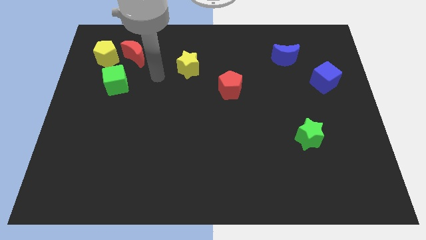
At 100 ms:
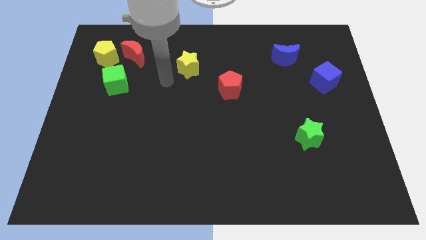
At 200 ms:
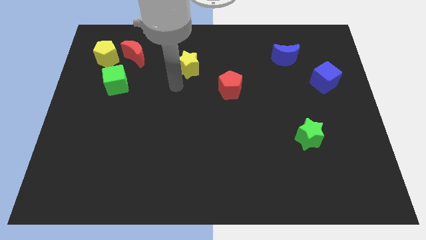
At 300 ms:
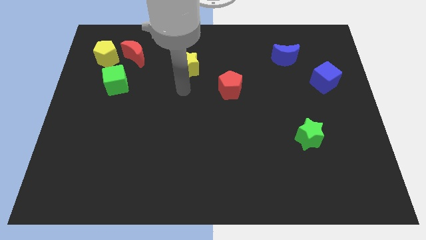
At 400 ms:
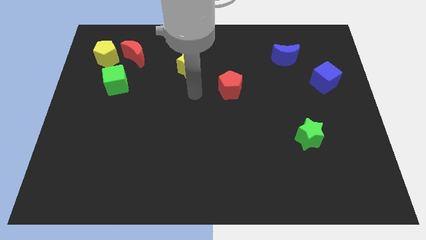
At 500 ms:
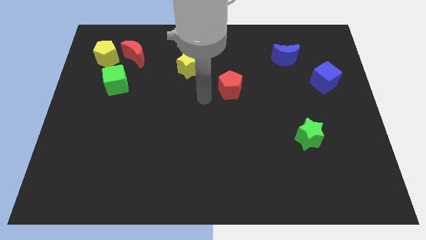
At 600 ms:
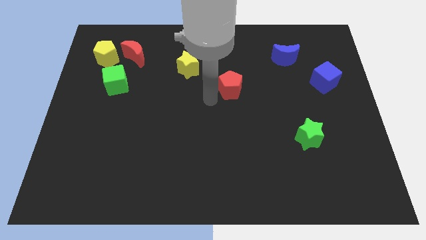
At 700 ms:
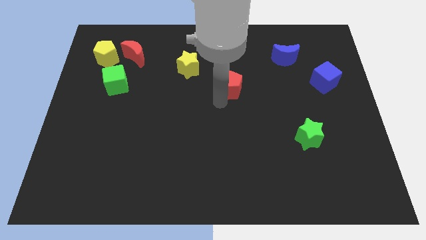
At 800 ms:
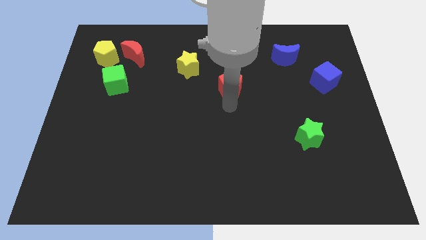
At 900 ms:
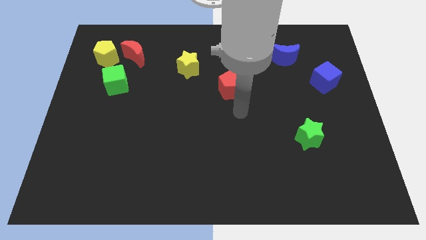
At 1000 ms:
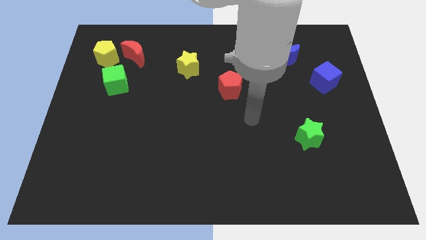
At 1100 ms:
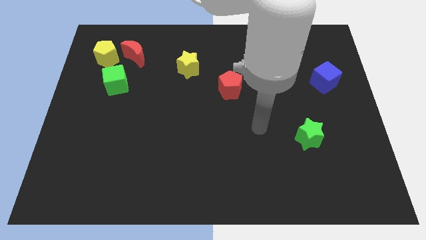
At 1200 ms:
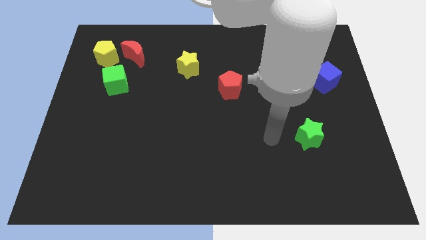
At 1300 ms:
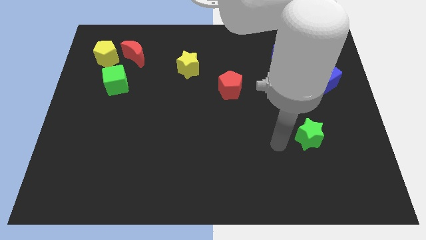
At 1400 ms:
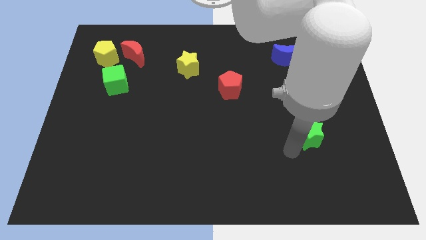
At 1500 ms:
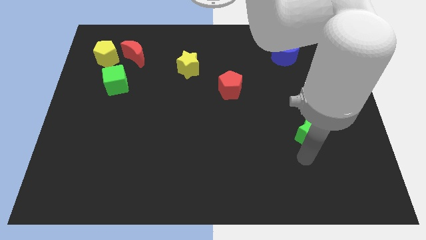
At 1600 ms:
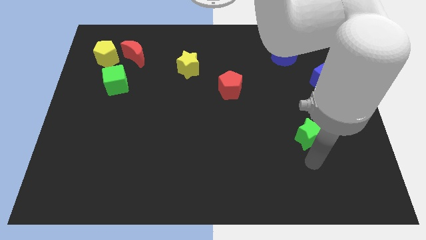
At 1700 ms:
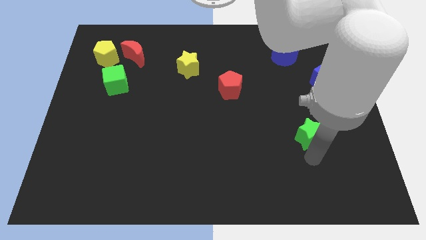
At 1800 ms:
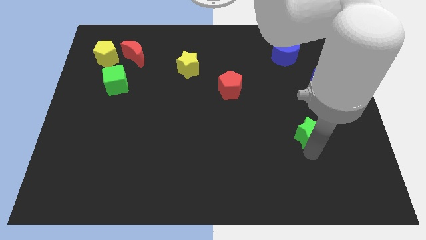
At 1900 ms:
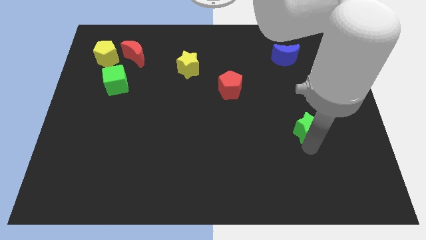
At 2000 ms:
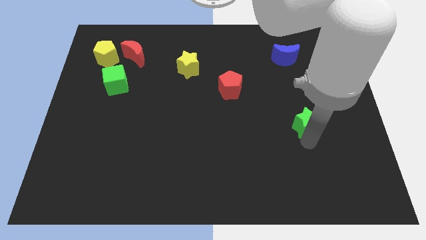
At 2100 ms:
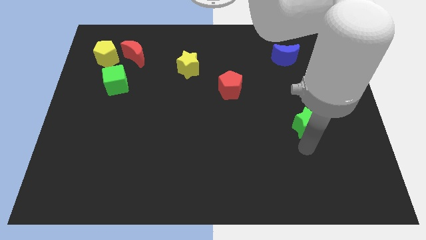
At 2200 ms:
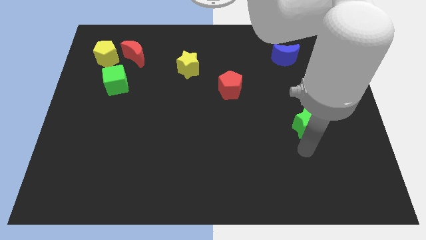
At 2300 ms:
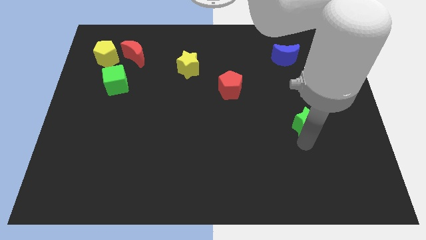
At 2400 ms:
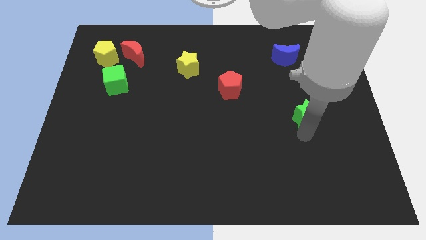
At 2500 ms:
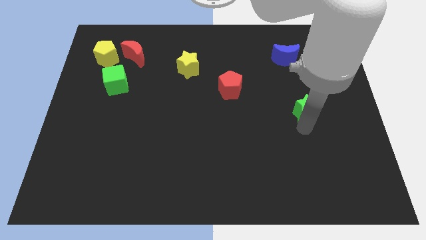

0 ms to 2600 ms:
slightly slide the green star up

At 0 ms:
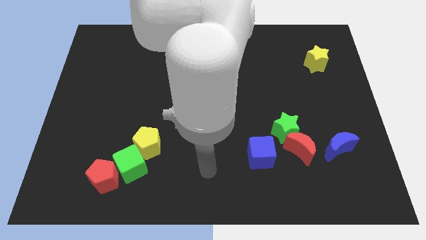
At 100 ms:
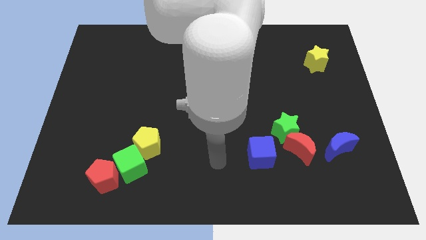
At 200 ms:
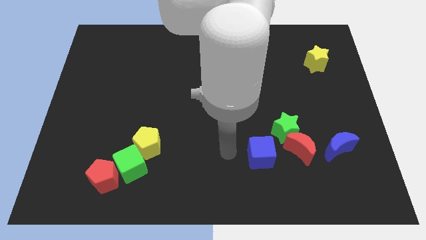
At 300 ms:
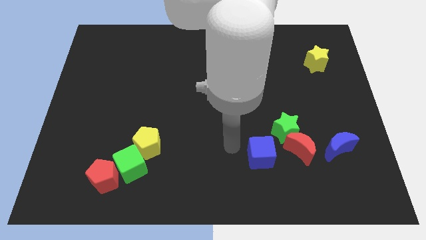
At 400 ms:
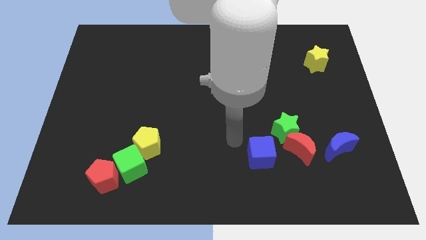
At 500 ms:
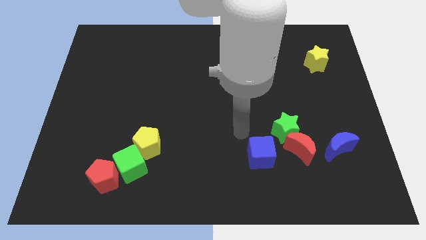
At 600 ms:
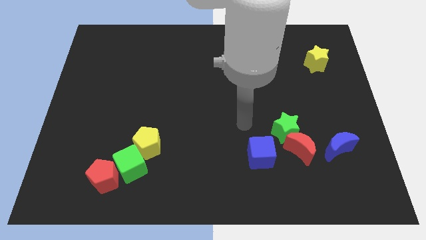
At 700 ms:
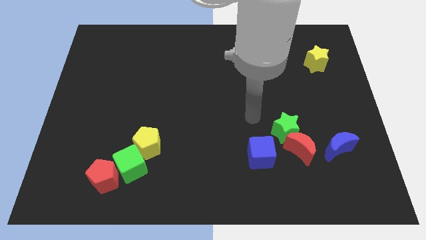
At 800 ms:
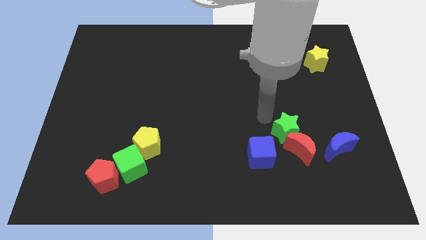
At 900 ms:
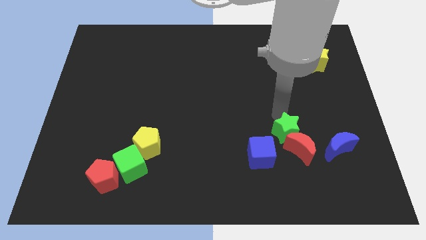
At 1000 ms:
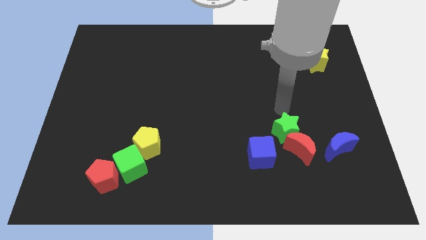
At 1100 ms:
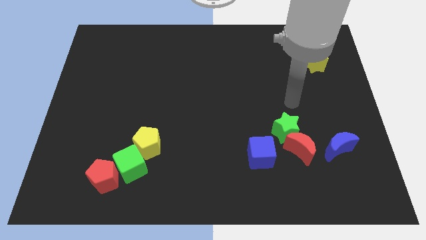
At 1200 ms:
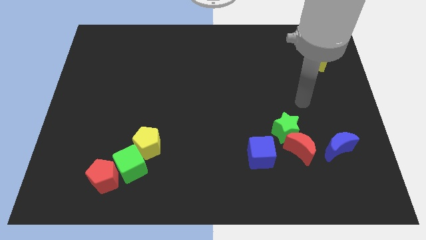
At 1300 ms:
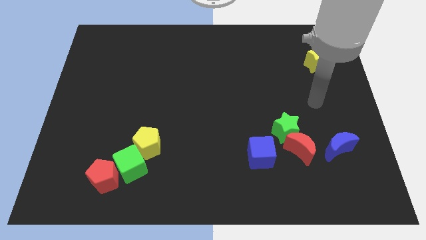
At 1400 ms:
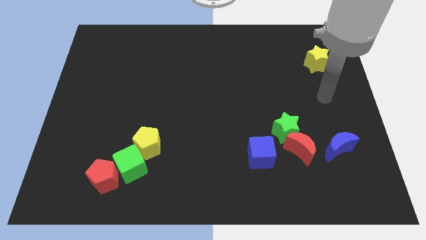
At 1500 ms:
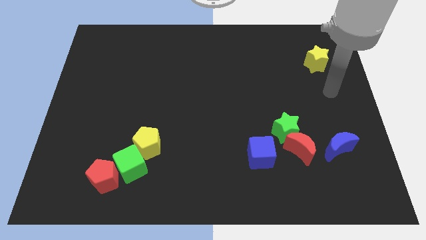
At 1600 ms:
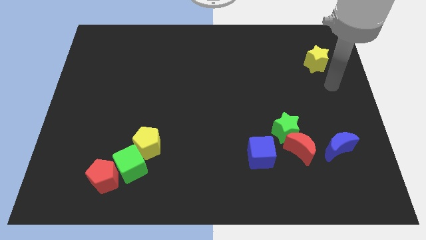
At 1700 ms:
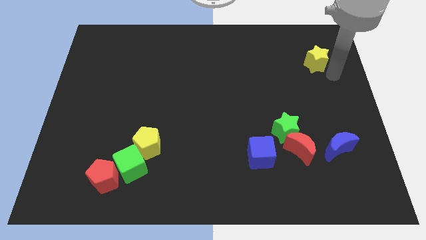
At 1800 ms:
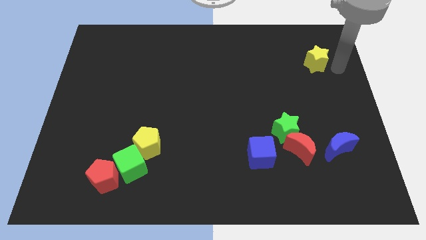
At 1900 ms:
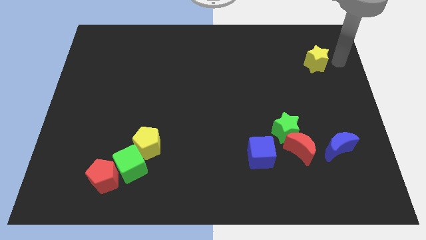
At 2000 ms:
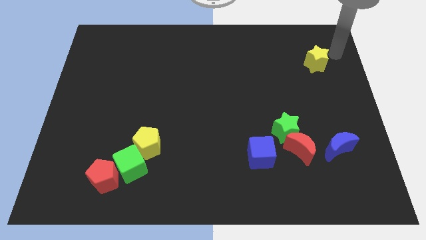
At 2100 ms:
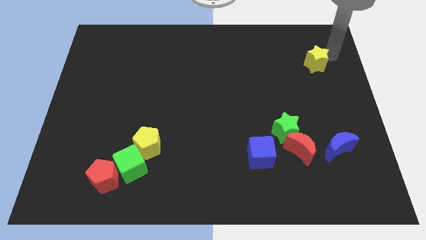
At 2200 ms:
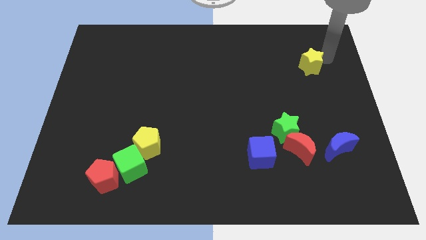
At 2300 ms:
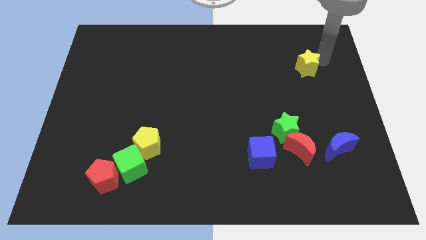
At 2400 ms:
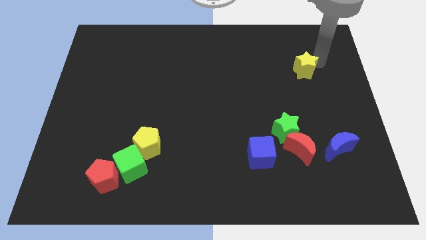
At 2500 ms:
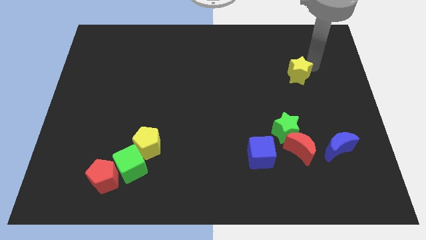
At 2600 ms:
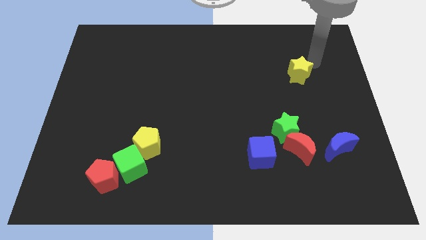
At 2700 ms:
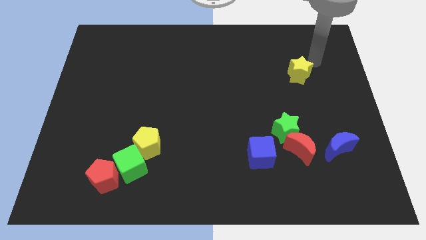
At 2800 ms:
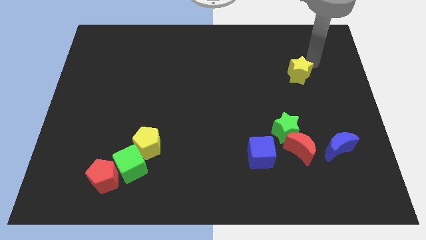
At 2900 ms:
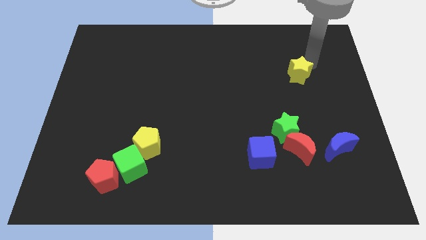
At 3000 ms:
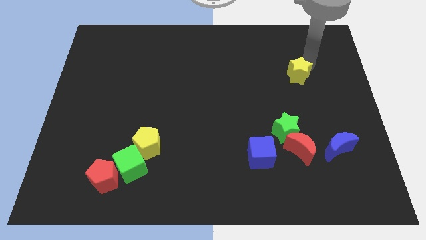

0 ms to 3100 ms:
move the yellow star a bit down and then to the left

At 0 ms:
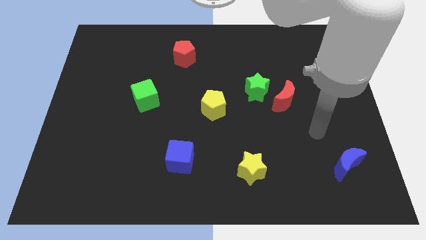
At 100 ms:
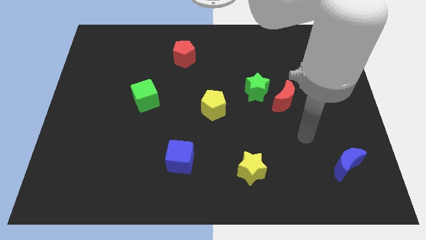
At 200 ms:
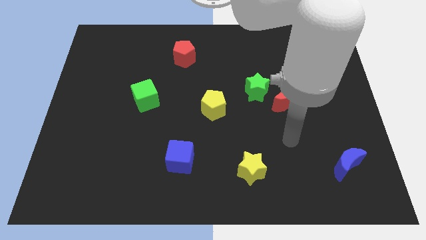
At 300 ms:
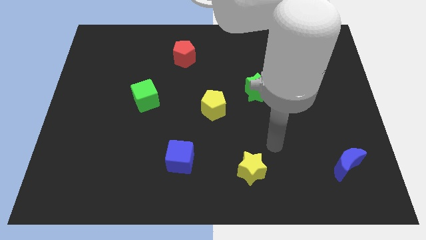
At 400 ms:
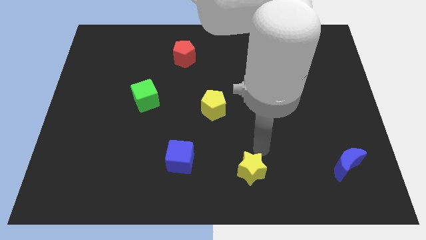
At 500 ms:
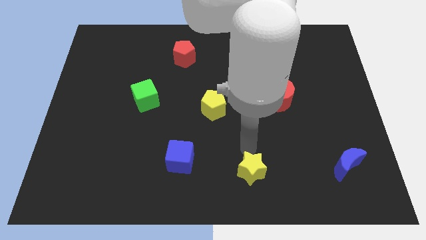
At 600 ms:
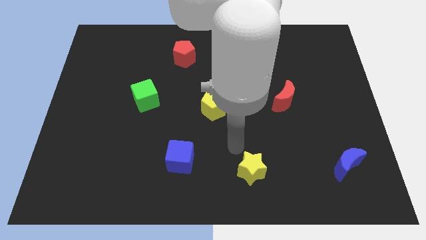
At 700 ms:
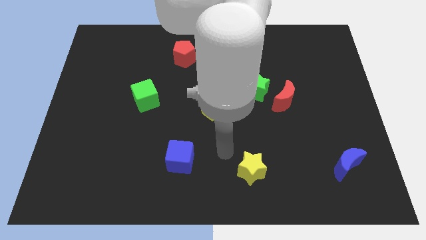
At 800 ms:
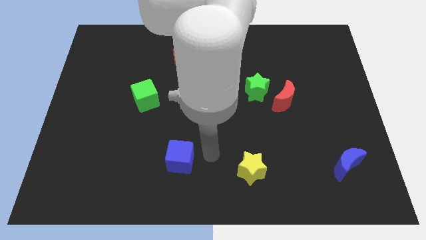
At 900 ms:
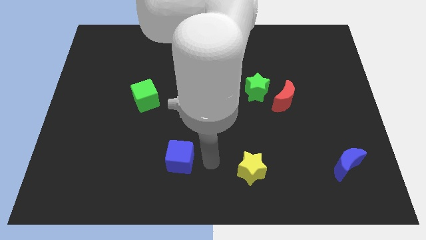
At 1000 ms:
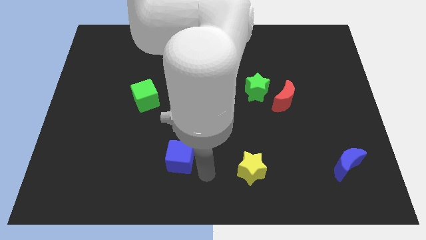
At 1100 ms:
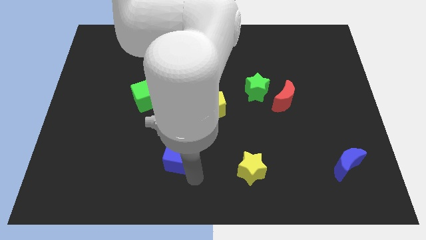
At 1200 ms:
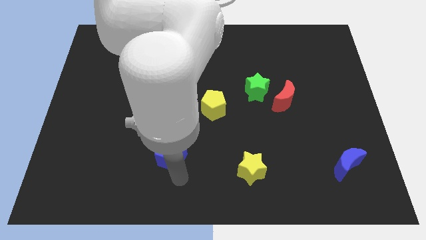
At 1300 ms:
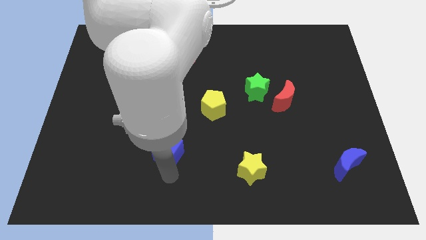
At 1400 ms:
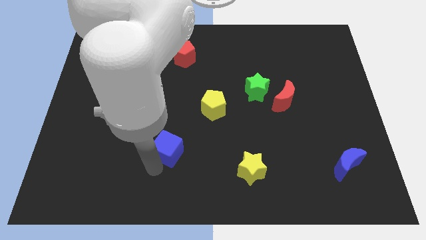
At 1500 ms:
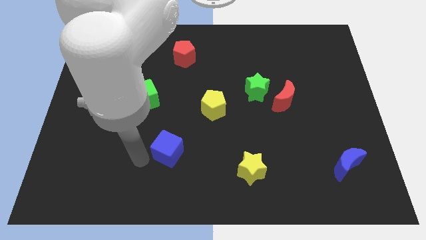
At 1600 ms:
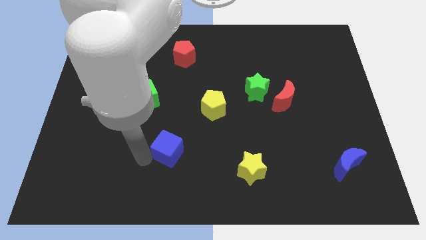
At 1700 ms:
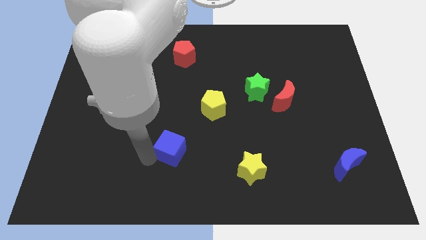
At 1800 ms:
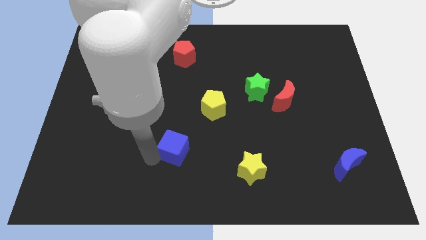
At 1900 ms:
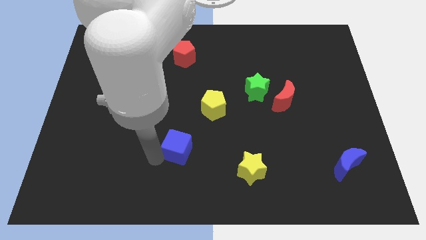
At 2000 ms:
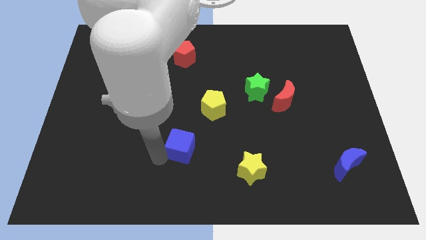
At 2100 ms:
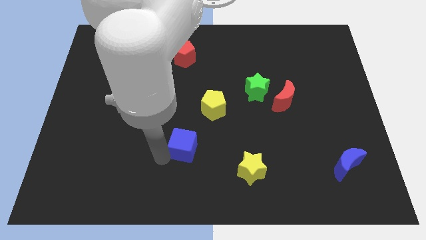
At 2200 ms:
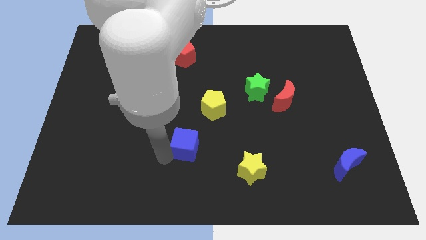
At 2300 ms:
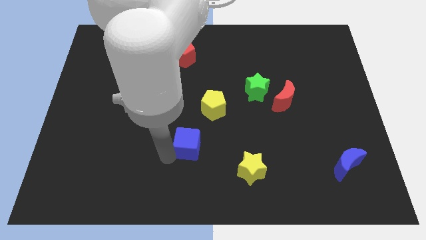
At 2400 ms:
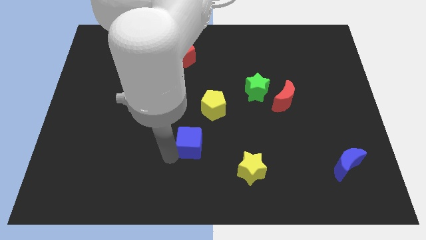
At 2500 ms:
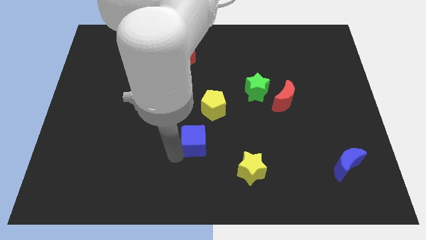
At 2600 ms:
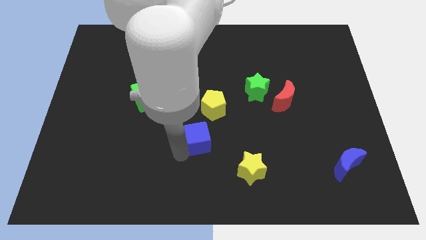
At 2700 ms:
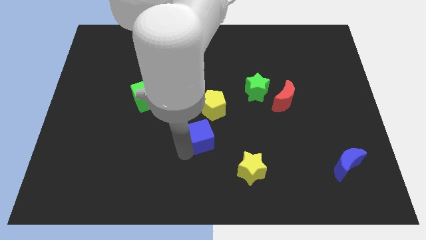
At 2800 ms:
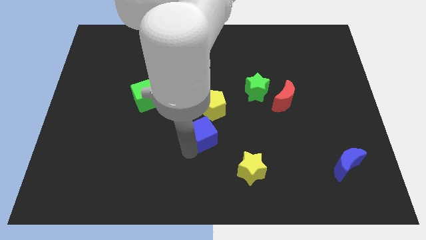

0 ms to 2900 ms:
slightly move the blue cube diagonally up and right

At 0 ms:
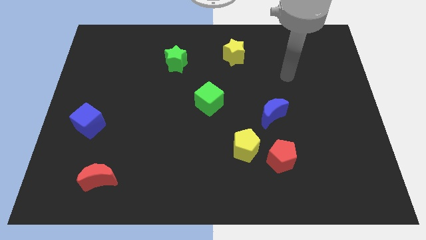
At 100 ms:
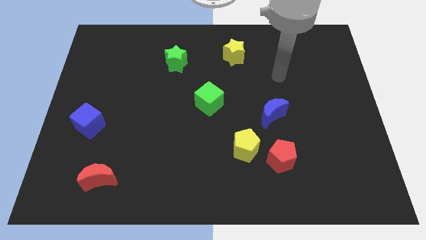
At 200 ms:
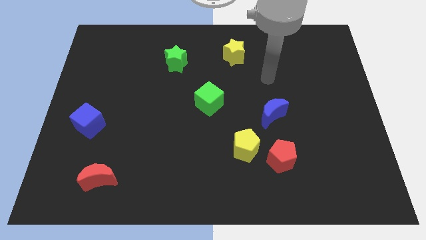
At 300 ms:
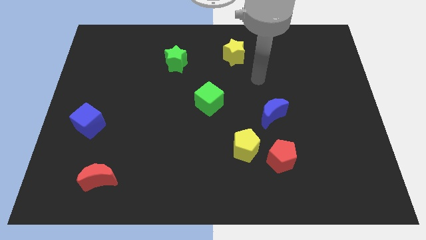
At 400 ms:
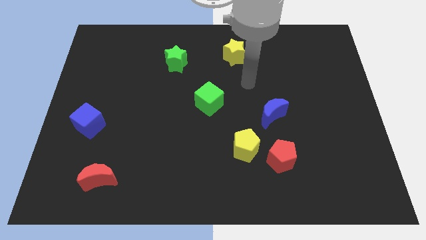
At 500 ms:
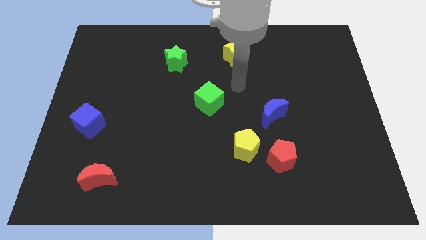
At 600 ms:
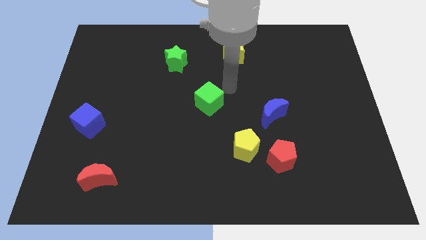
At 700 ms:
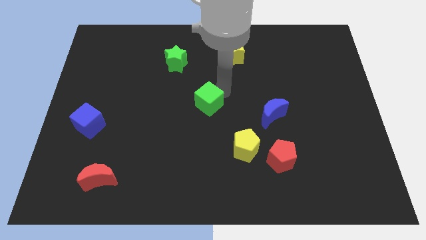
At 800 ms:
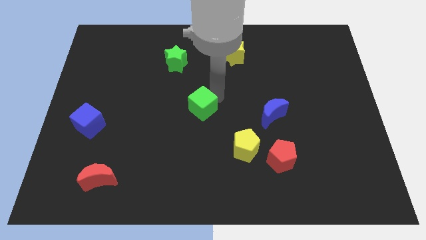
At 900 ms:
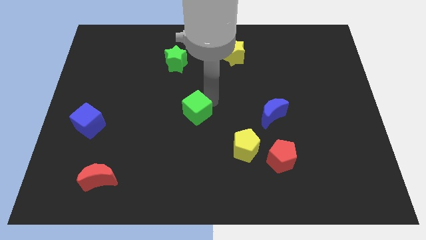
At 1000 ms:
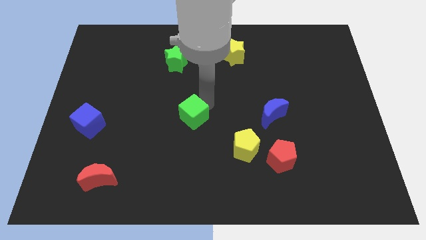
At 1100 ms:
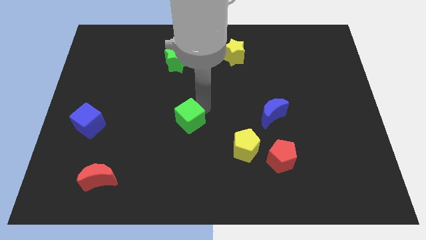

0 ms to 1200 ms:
slide the green cube diagonally down and left a little bit
